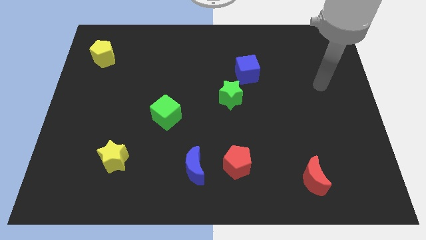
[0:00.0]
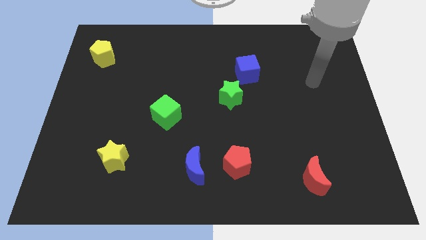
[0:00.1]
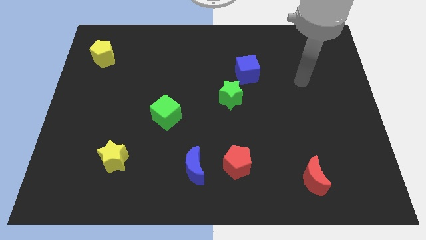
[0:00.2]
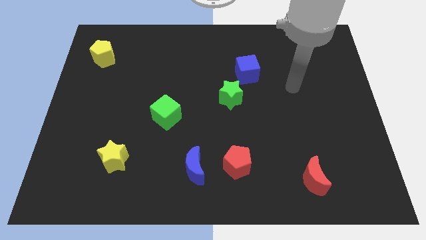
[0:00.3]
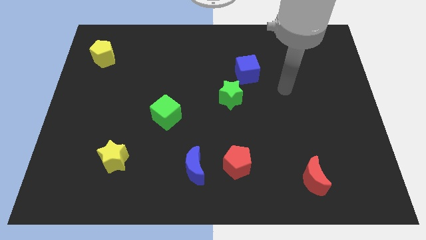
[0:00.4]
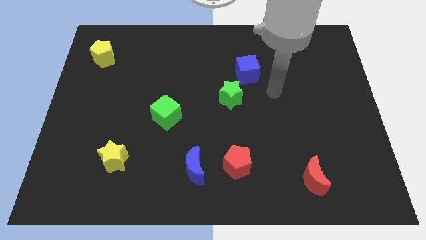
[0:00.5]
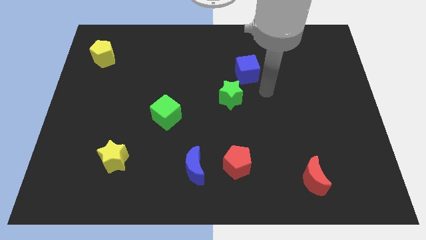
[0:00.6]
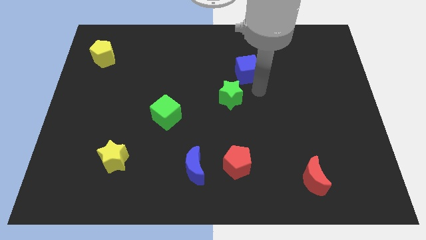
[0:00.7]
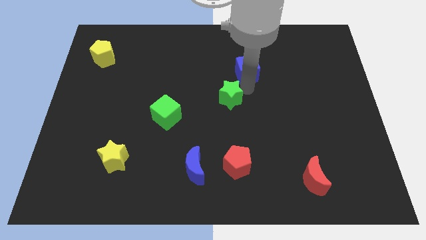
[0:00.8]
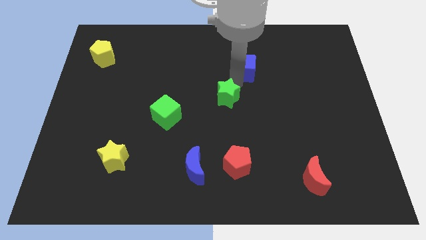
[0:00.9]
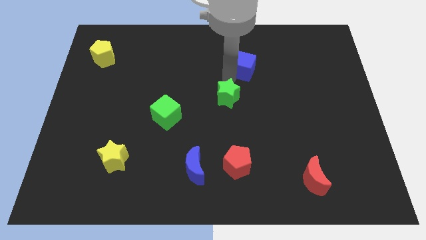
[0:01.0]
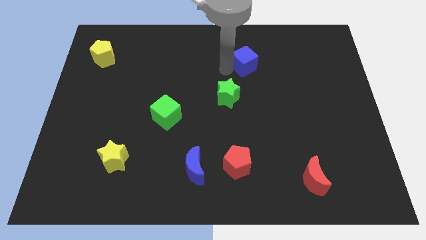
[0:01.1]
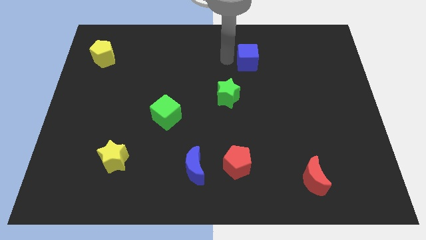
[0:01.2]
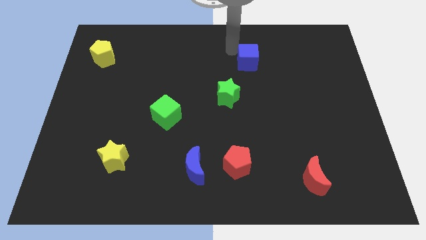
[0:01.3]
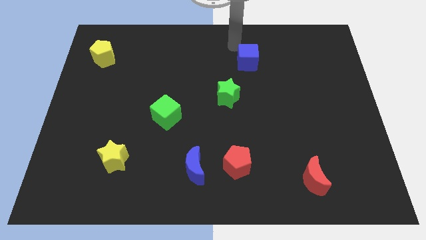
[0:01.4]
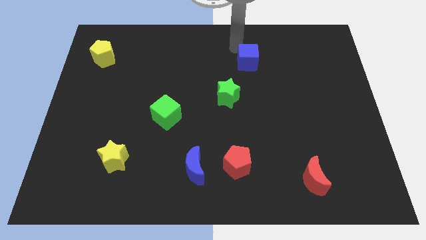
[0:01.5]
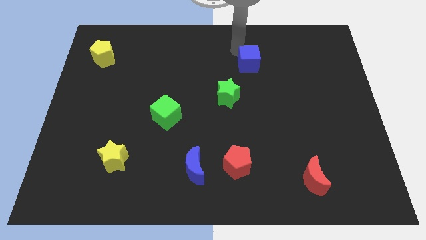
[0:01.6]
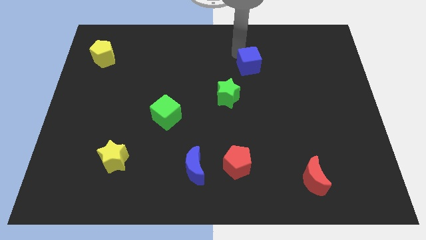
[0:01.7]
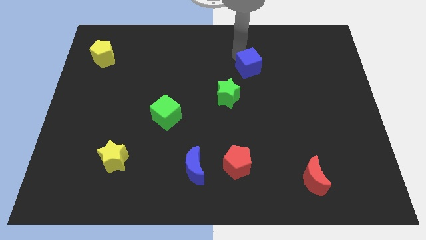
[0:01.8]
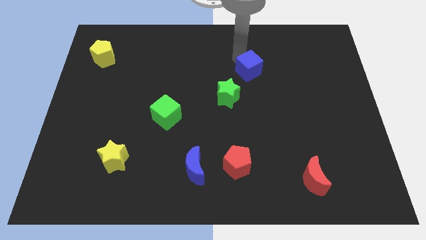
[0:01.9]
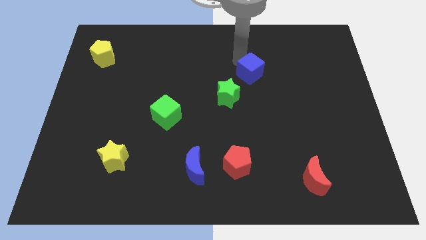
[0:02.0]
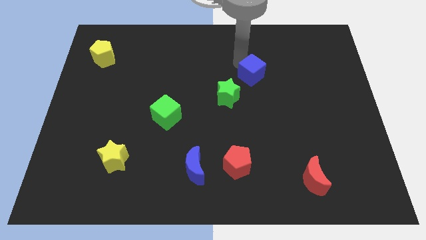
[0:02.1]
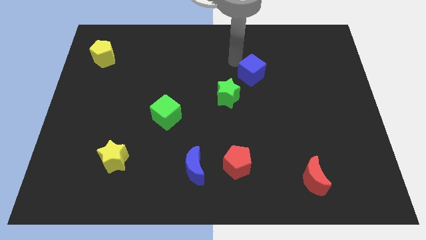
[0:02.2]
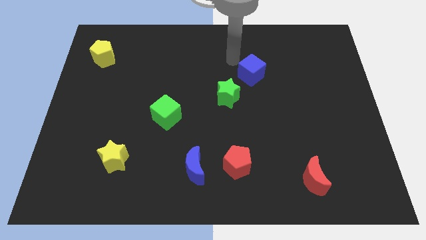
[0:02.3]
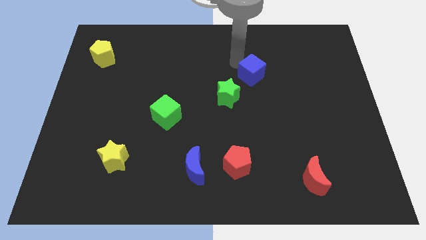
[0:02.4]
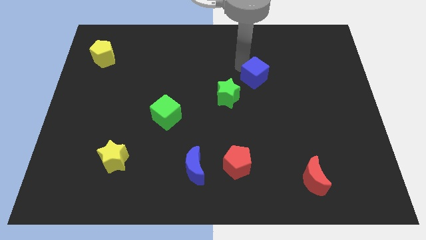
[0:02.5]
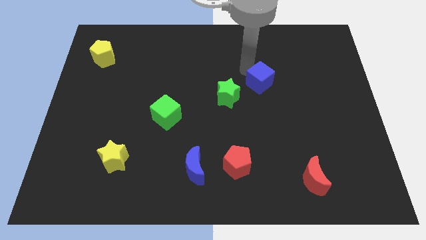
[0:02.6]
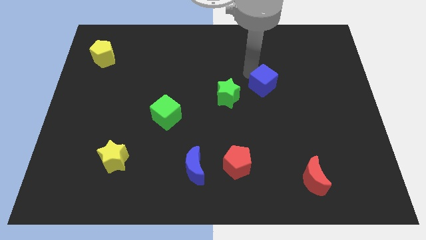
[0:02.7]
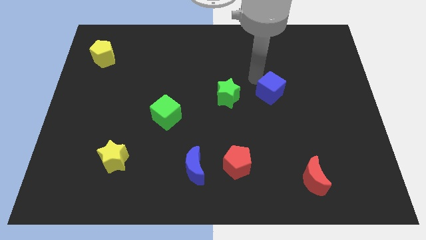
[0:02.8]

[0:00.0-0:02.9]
slide the blue cube a little bit down and then right

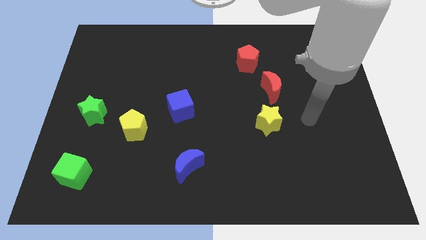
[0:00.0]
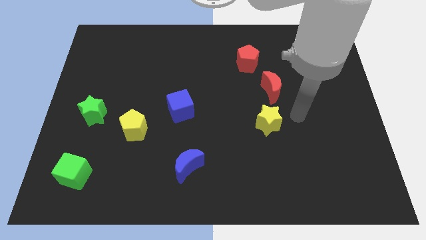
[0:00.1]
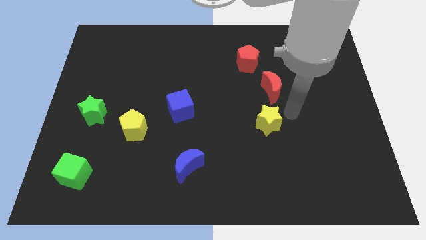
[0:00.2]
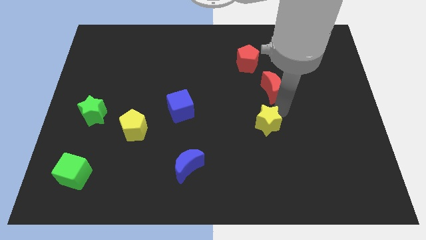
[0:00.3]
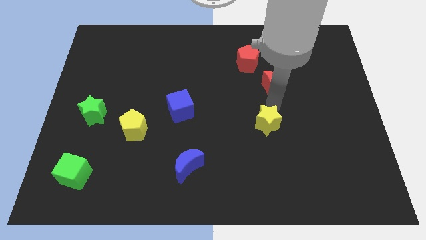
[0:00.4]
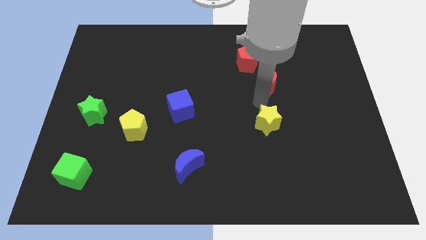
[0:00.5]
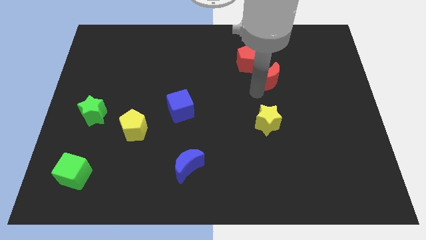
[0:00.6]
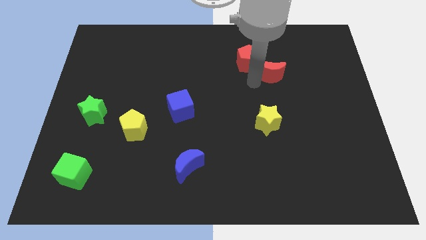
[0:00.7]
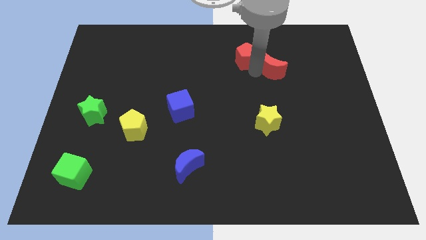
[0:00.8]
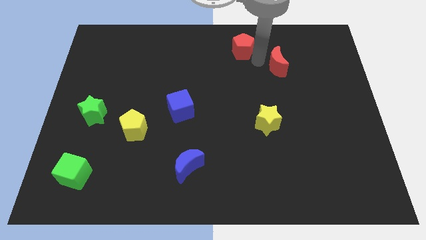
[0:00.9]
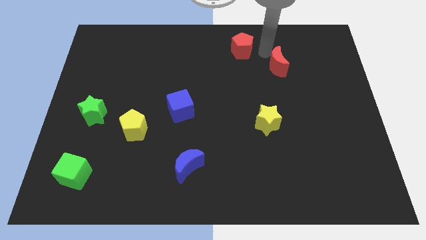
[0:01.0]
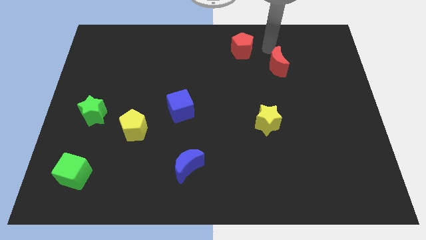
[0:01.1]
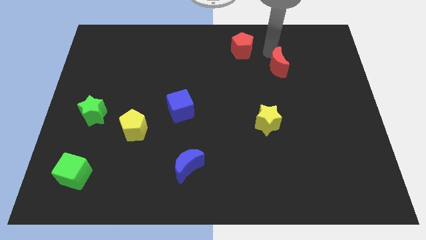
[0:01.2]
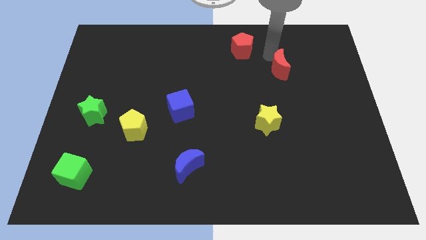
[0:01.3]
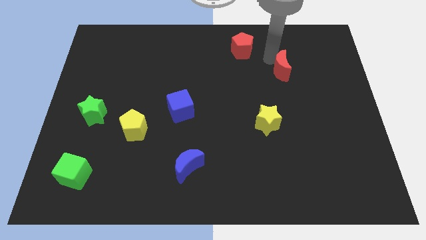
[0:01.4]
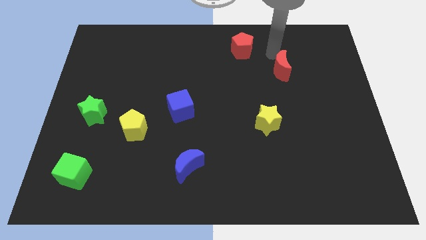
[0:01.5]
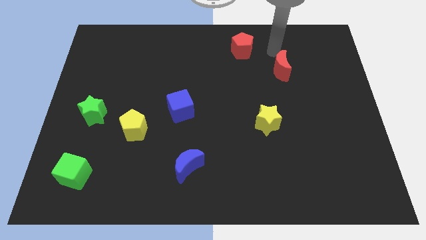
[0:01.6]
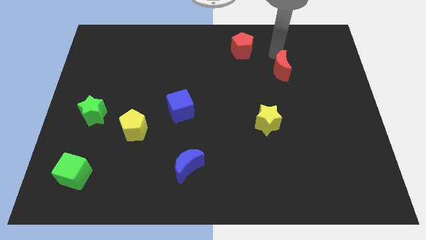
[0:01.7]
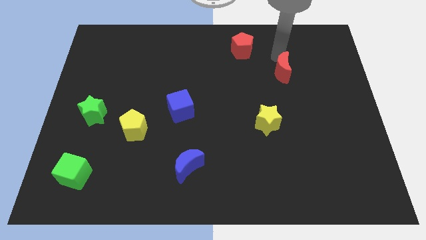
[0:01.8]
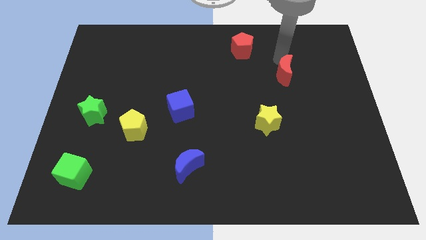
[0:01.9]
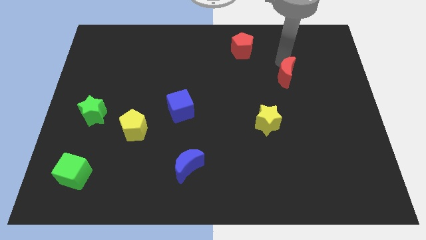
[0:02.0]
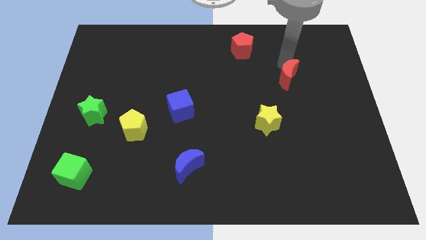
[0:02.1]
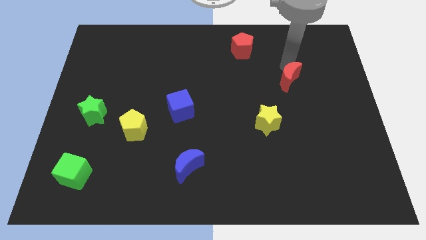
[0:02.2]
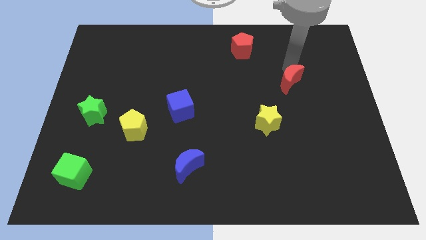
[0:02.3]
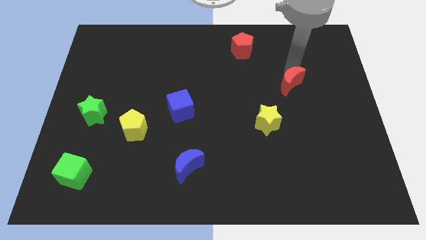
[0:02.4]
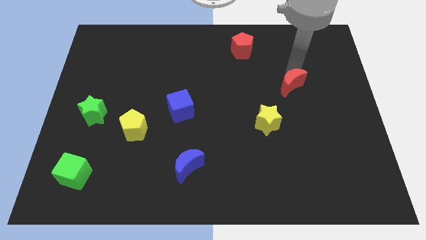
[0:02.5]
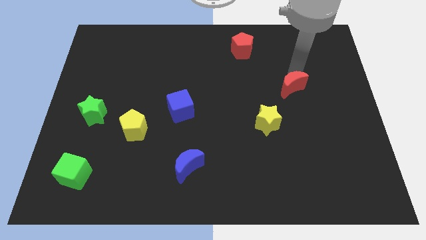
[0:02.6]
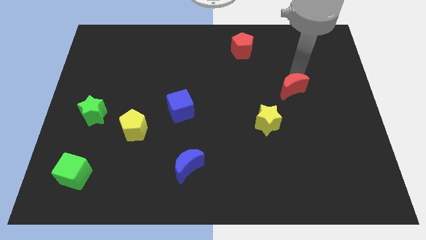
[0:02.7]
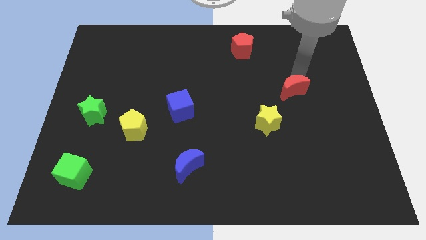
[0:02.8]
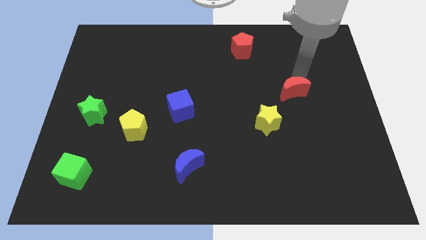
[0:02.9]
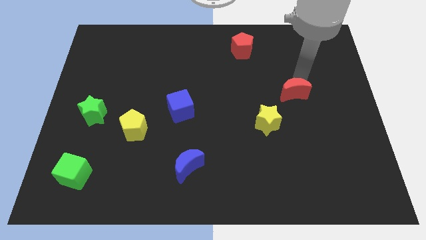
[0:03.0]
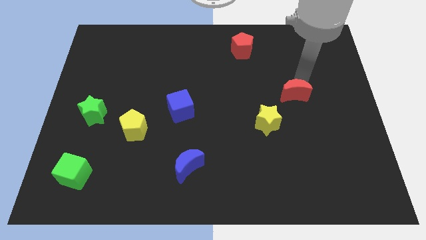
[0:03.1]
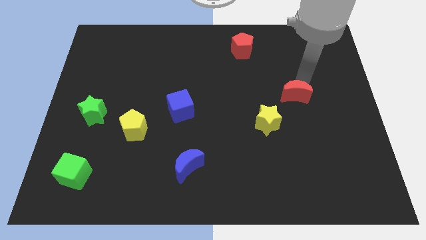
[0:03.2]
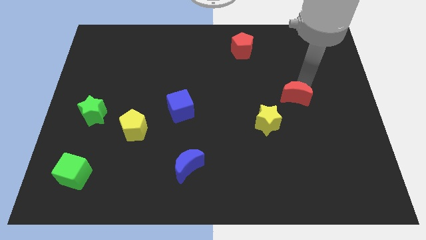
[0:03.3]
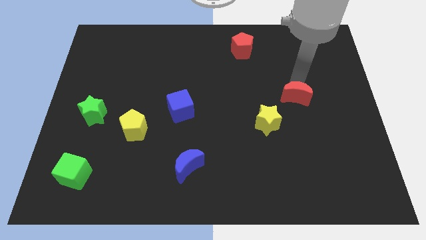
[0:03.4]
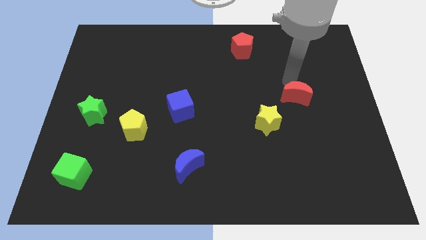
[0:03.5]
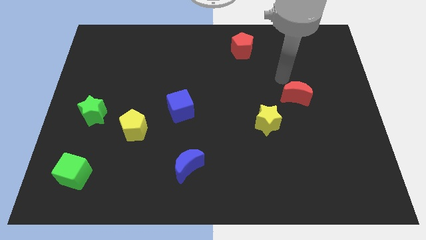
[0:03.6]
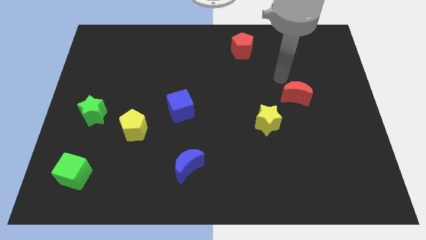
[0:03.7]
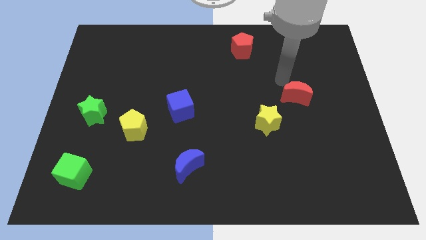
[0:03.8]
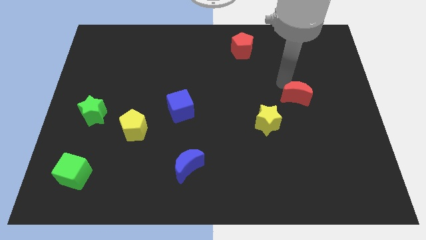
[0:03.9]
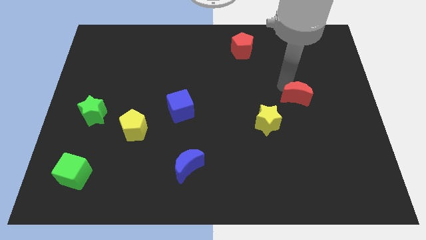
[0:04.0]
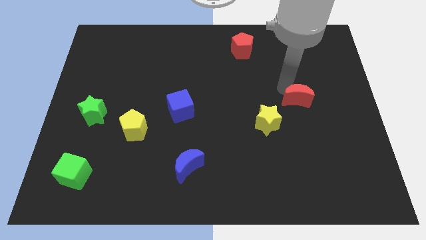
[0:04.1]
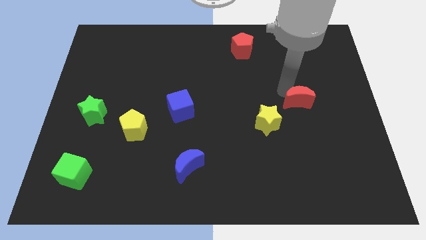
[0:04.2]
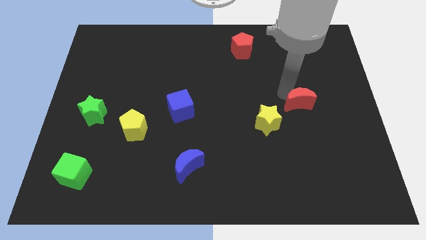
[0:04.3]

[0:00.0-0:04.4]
push the red moon a little down and right diagonally

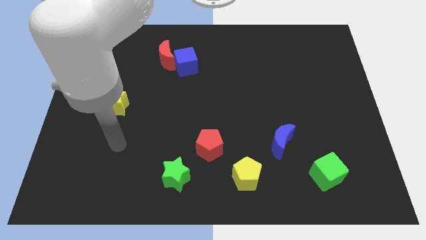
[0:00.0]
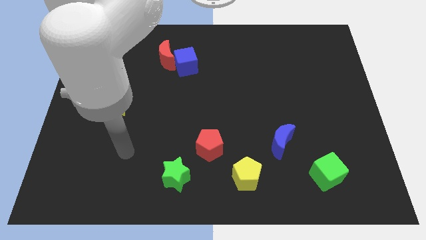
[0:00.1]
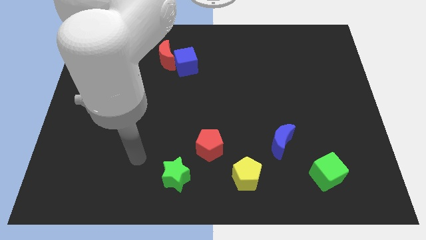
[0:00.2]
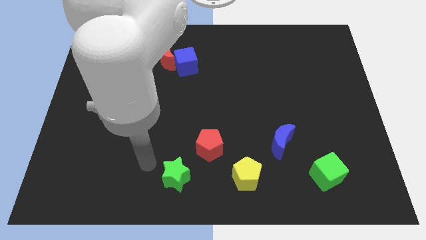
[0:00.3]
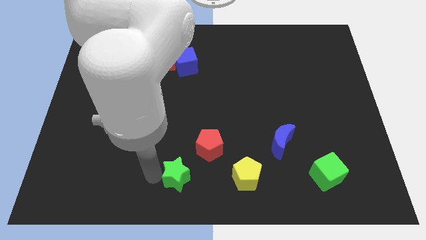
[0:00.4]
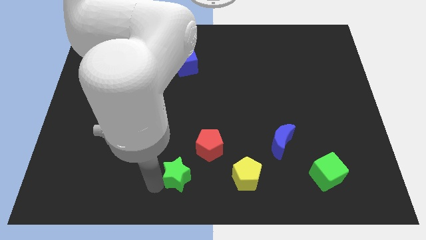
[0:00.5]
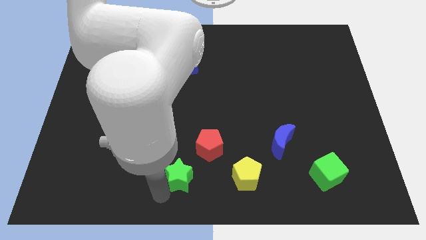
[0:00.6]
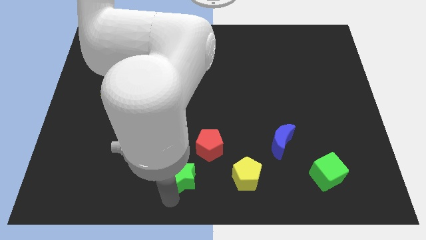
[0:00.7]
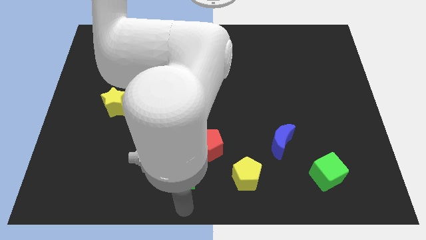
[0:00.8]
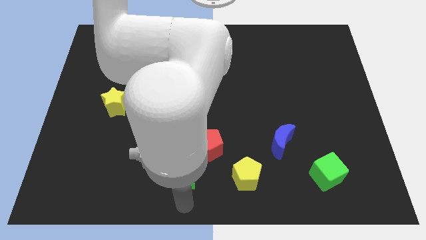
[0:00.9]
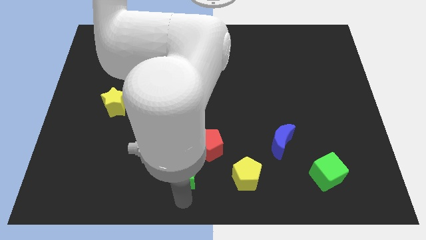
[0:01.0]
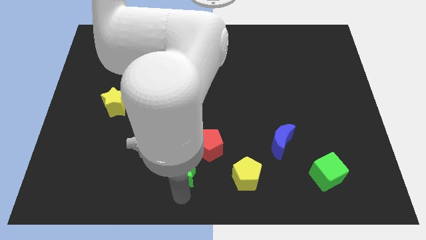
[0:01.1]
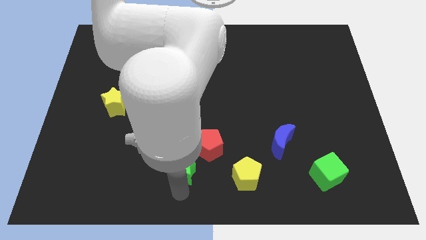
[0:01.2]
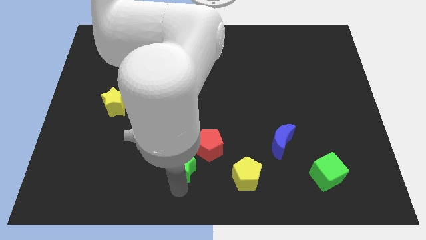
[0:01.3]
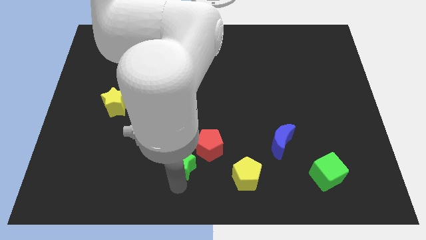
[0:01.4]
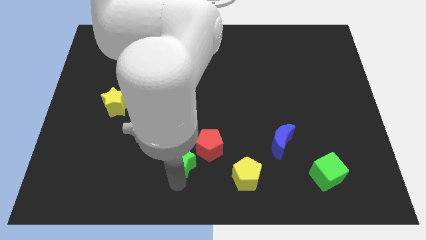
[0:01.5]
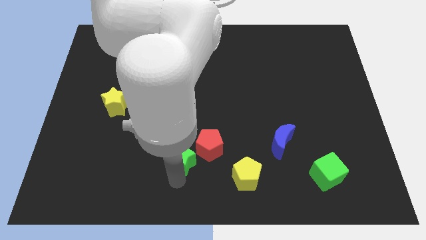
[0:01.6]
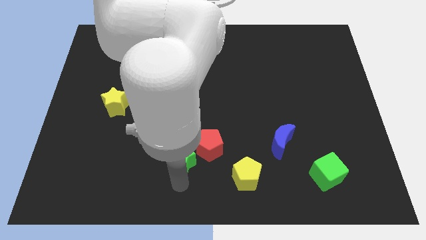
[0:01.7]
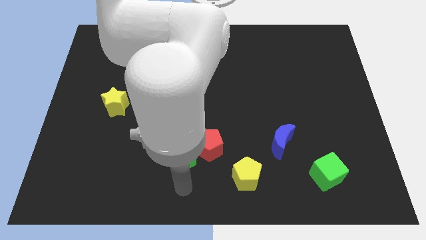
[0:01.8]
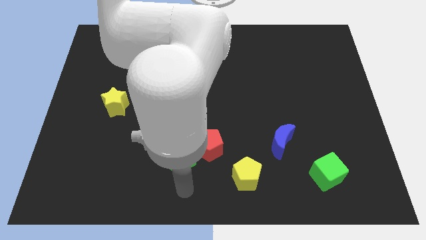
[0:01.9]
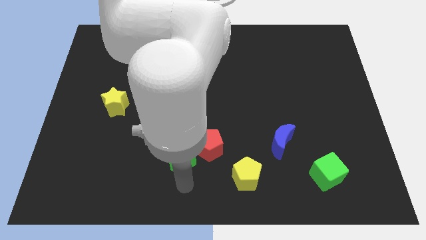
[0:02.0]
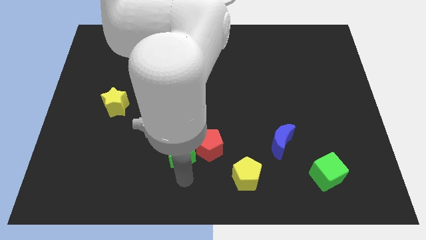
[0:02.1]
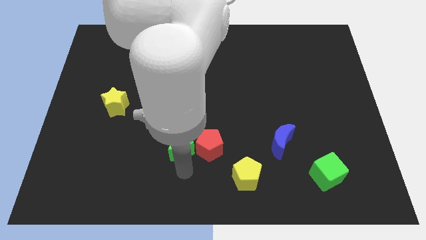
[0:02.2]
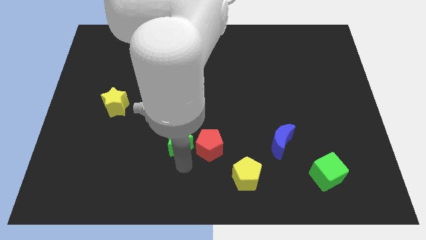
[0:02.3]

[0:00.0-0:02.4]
move the green star up somewhat
